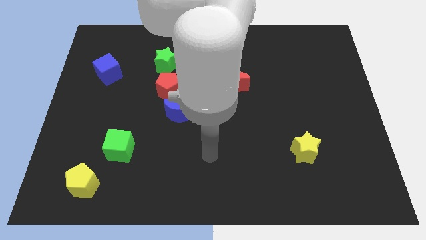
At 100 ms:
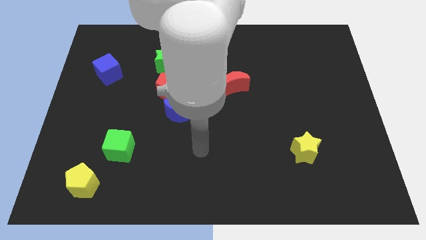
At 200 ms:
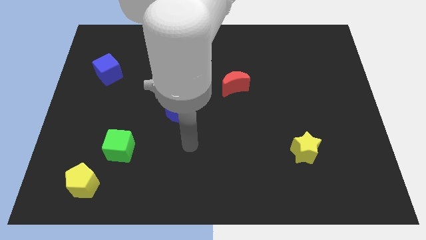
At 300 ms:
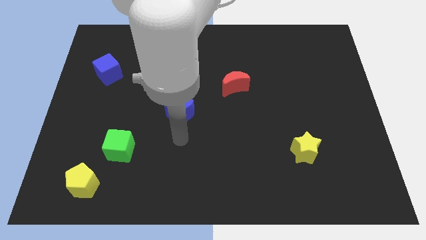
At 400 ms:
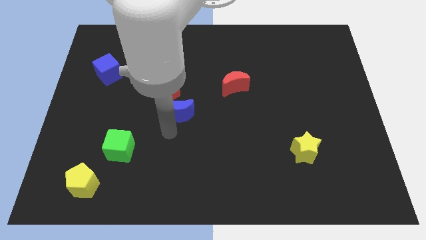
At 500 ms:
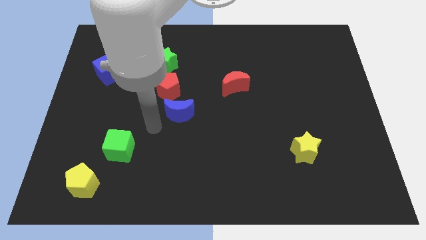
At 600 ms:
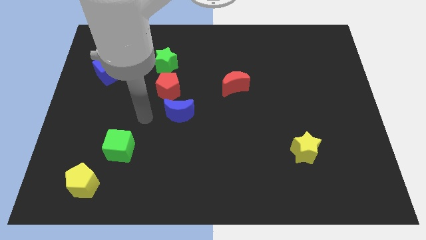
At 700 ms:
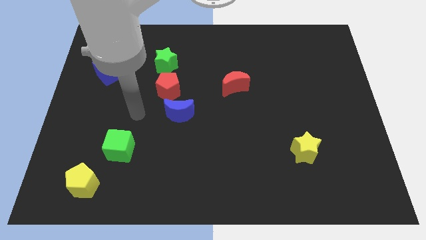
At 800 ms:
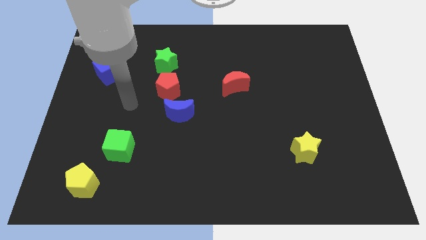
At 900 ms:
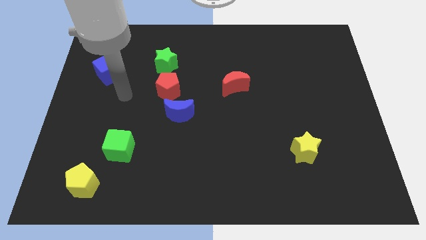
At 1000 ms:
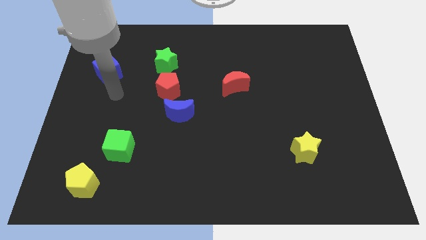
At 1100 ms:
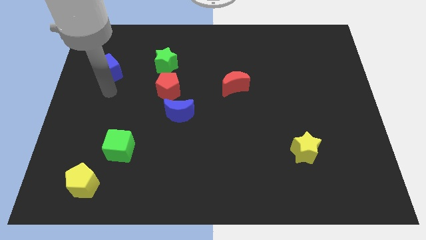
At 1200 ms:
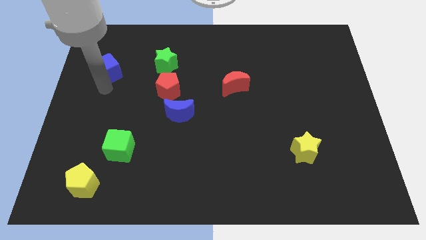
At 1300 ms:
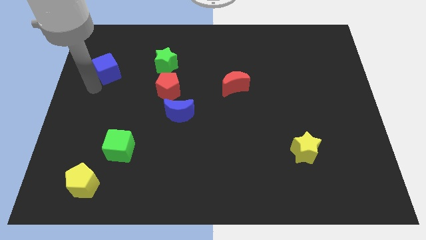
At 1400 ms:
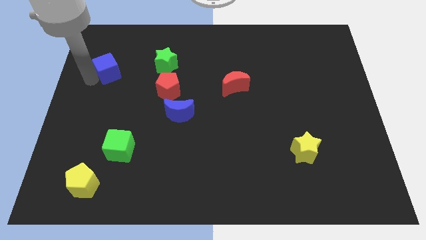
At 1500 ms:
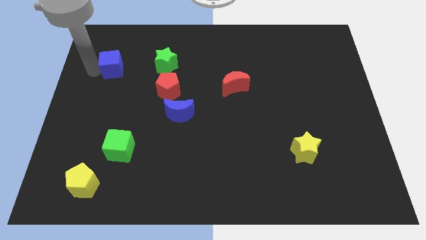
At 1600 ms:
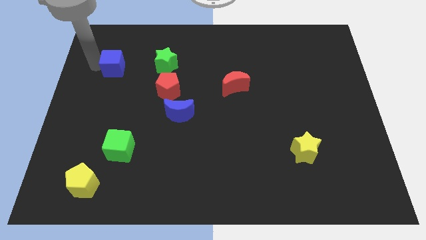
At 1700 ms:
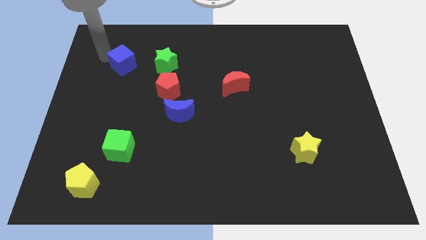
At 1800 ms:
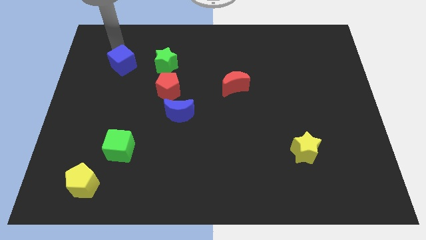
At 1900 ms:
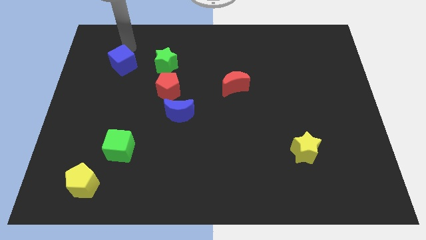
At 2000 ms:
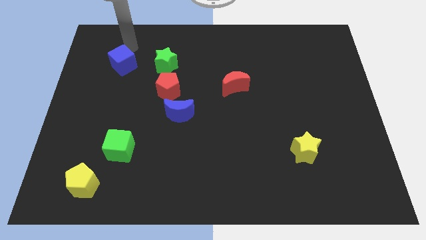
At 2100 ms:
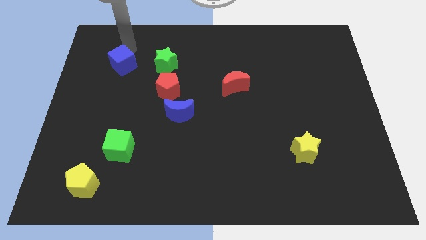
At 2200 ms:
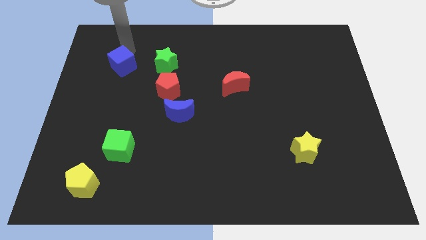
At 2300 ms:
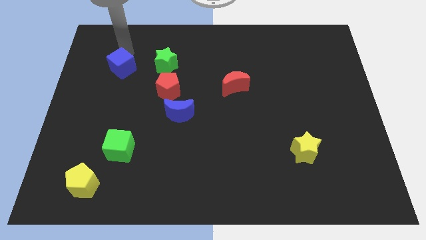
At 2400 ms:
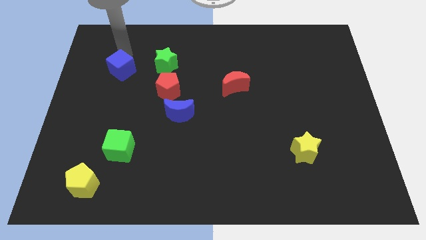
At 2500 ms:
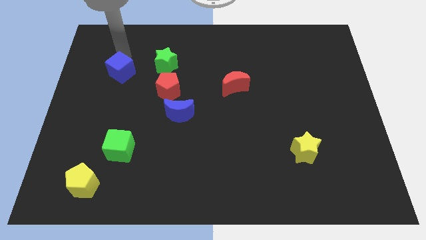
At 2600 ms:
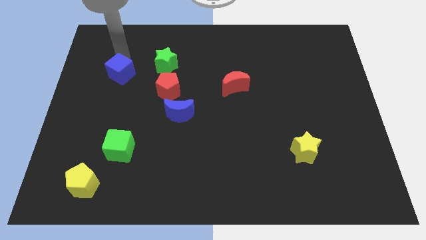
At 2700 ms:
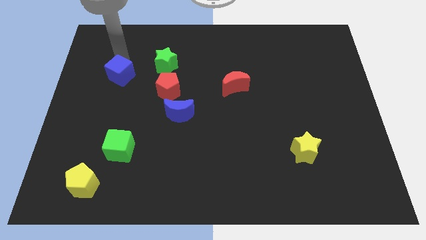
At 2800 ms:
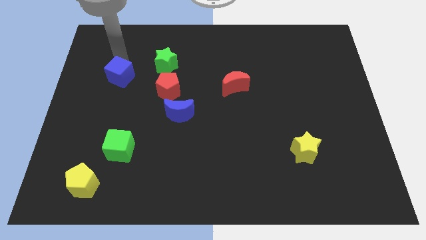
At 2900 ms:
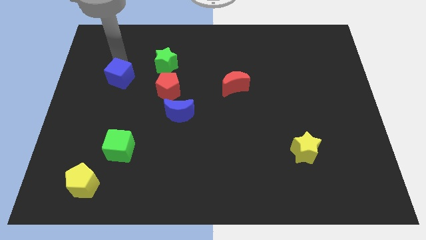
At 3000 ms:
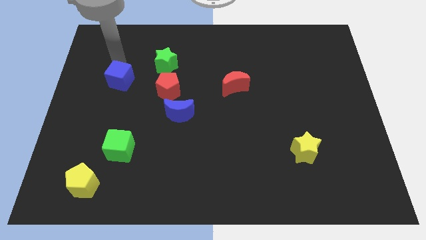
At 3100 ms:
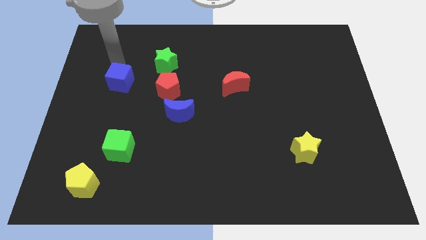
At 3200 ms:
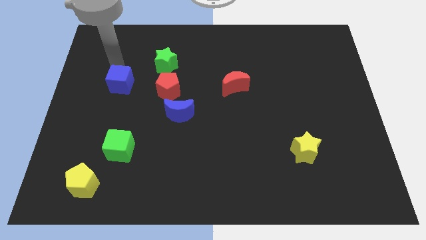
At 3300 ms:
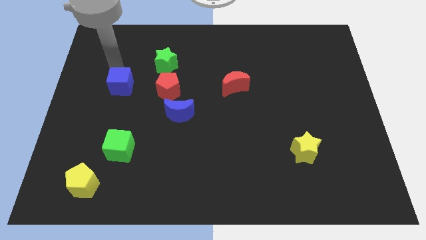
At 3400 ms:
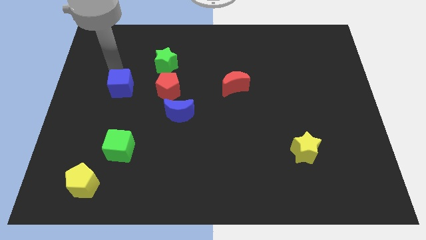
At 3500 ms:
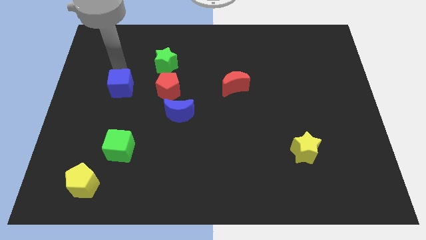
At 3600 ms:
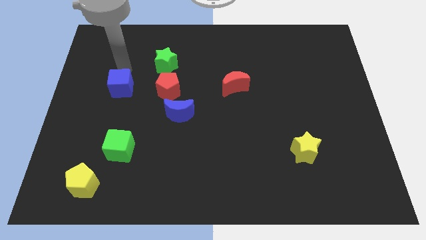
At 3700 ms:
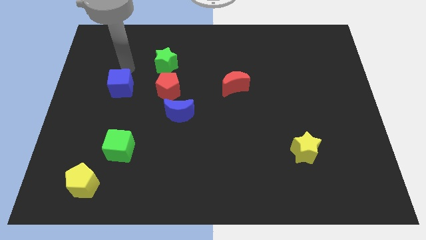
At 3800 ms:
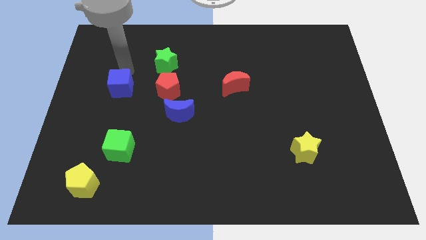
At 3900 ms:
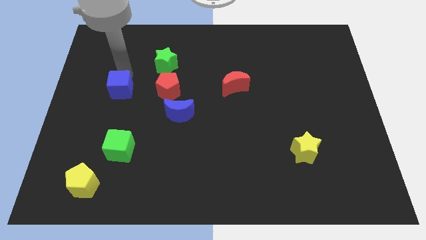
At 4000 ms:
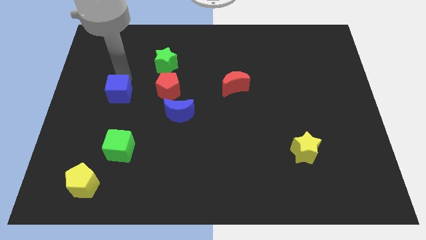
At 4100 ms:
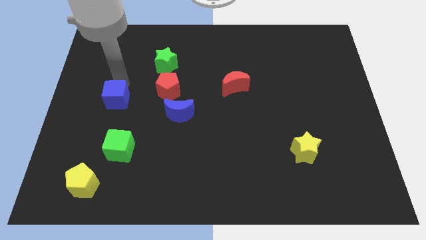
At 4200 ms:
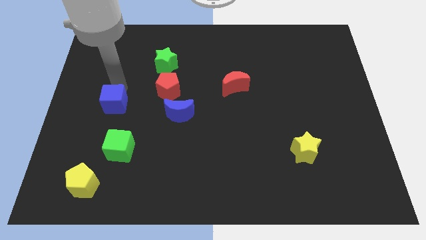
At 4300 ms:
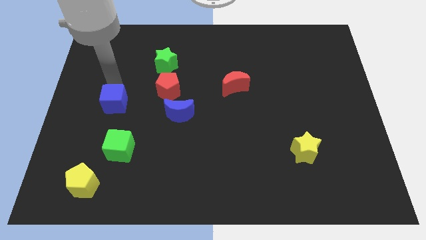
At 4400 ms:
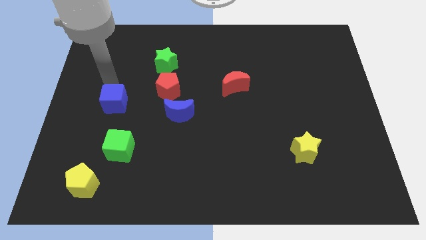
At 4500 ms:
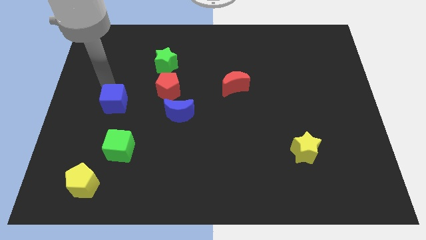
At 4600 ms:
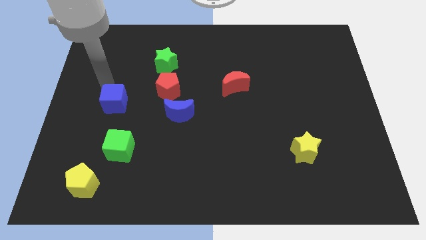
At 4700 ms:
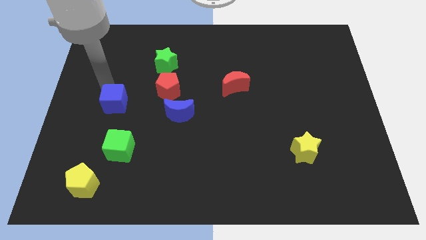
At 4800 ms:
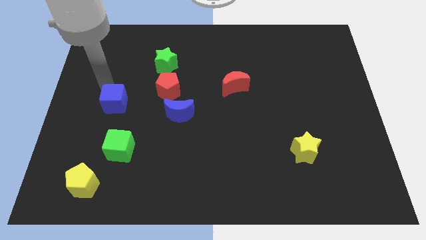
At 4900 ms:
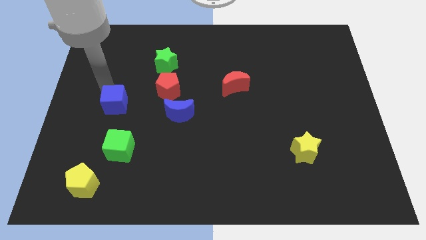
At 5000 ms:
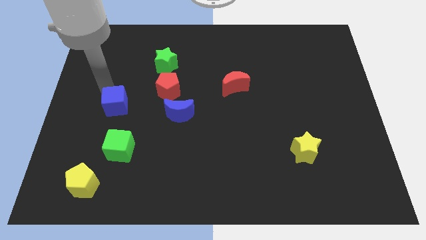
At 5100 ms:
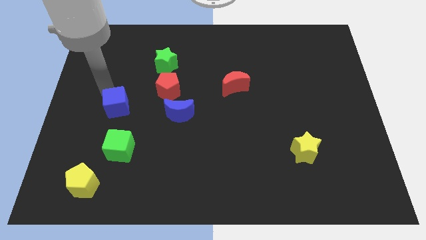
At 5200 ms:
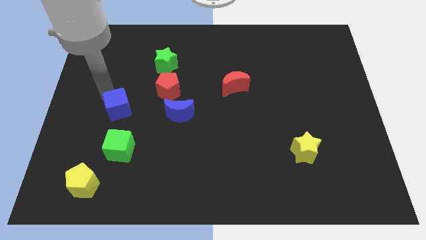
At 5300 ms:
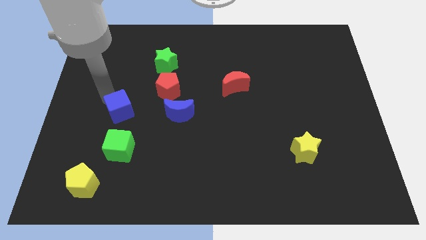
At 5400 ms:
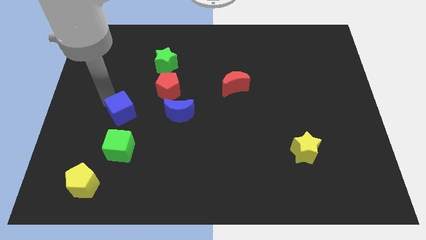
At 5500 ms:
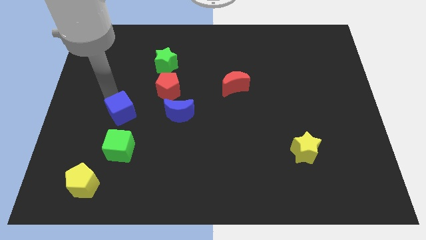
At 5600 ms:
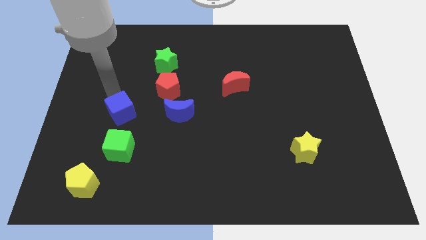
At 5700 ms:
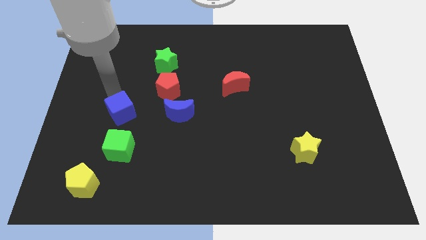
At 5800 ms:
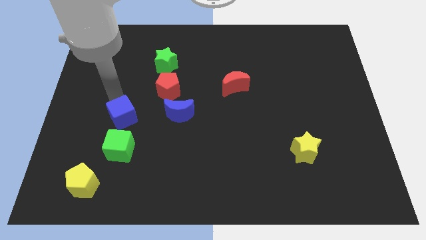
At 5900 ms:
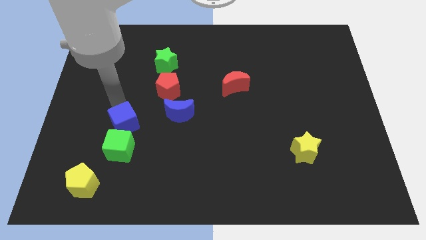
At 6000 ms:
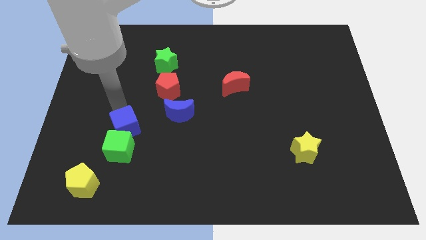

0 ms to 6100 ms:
move the blue cube close to the green cube
